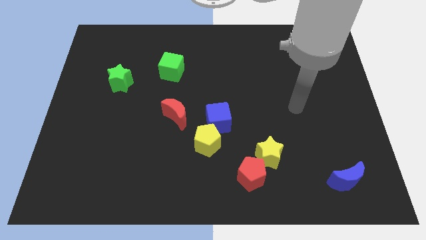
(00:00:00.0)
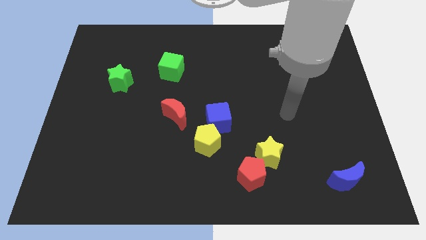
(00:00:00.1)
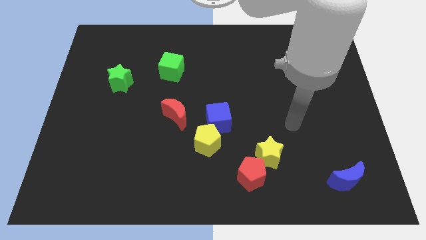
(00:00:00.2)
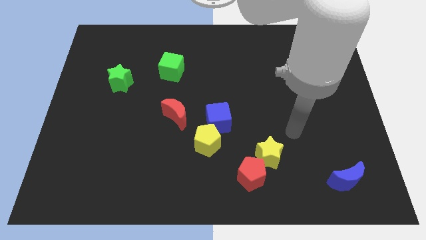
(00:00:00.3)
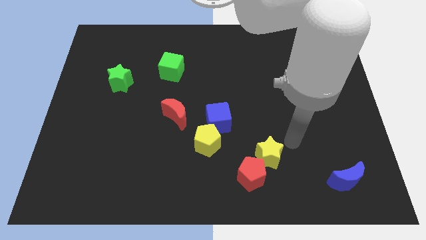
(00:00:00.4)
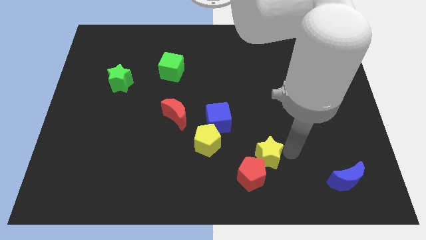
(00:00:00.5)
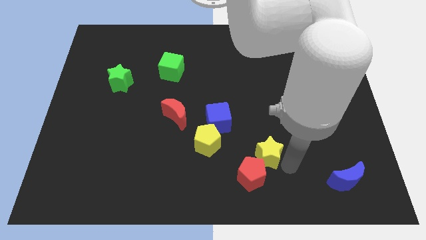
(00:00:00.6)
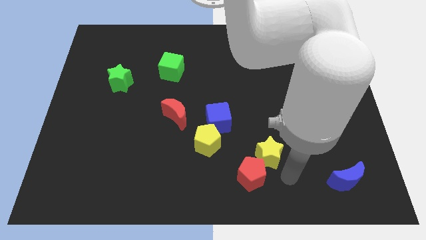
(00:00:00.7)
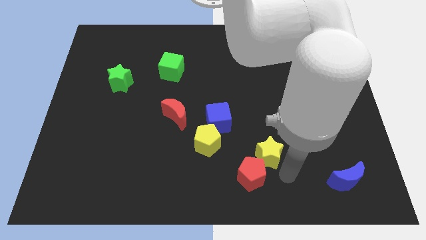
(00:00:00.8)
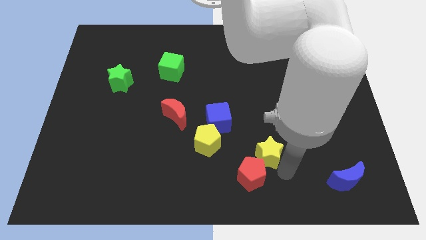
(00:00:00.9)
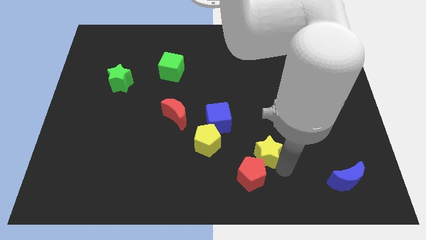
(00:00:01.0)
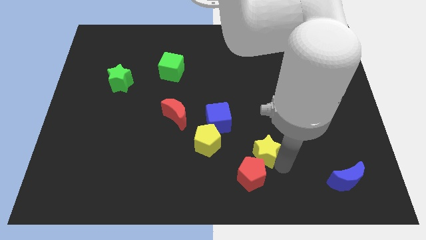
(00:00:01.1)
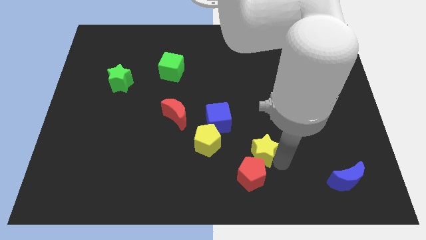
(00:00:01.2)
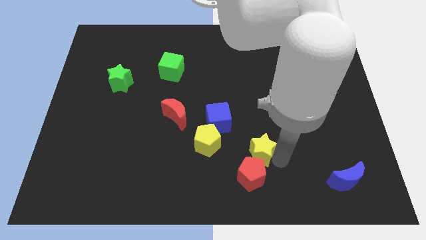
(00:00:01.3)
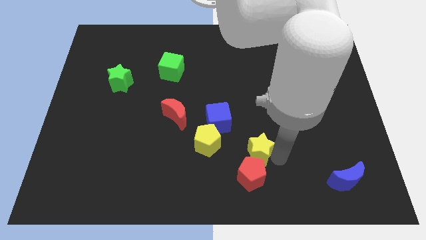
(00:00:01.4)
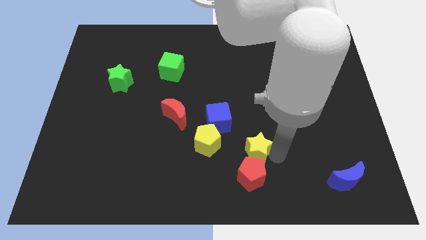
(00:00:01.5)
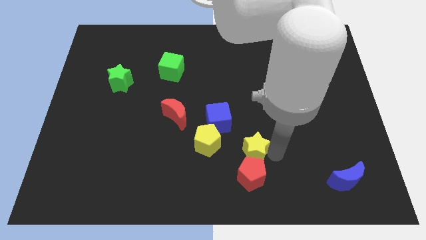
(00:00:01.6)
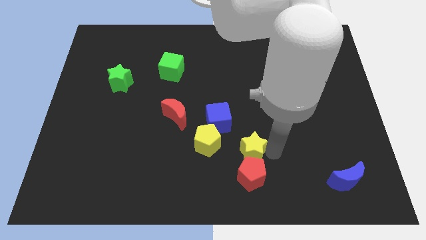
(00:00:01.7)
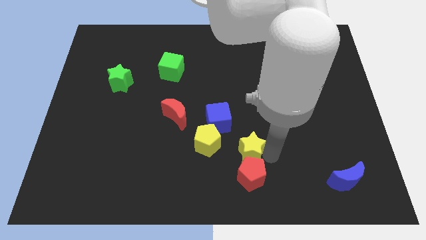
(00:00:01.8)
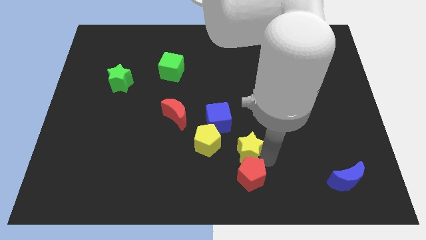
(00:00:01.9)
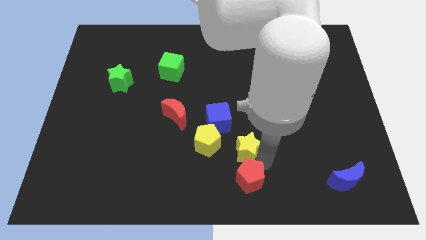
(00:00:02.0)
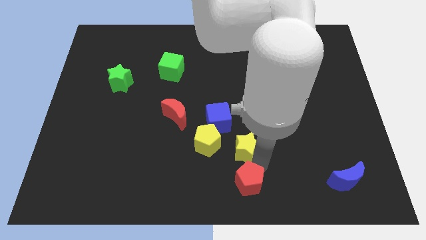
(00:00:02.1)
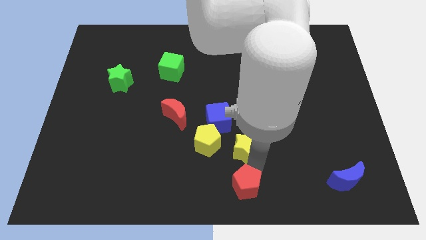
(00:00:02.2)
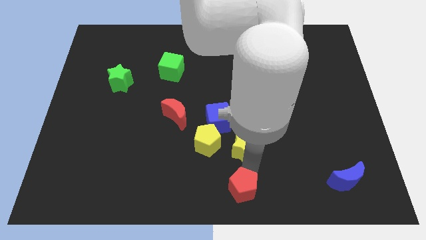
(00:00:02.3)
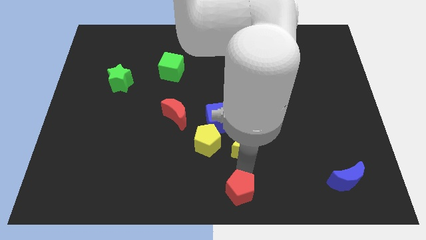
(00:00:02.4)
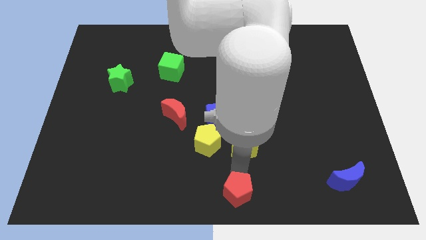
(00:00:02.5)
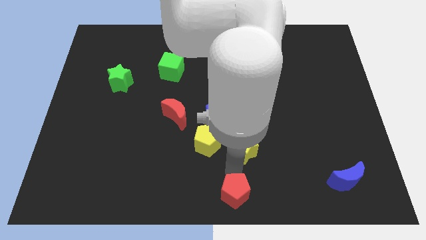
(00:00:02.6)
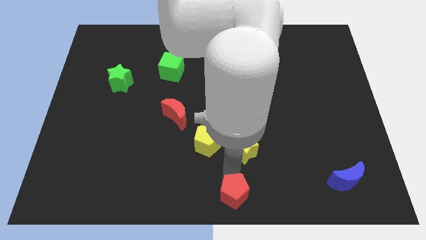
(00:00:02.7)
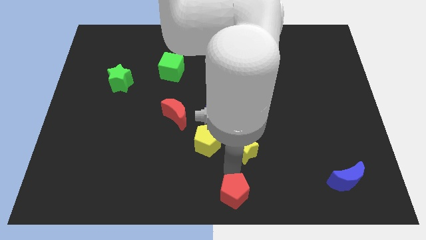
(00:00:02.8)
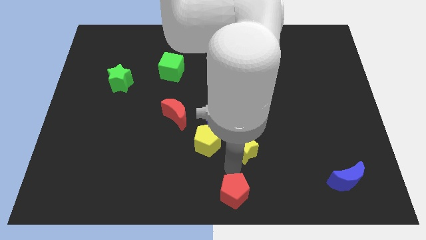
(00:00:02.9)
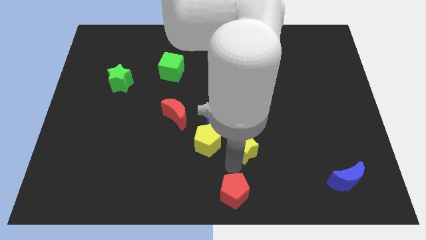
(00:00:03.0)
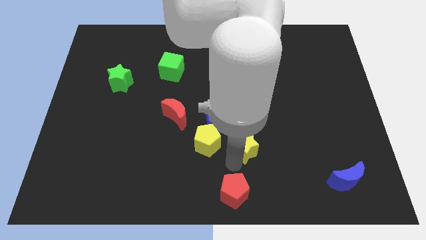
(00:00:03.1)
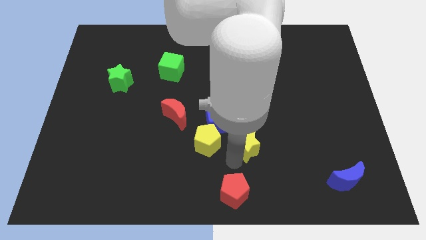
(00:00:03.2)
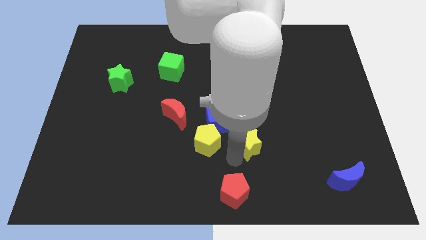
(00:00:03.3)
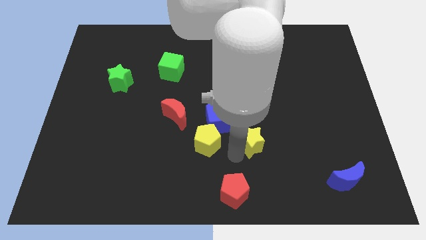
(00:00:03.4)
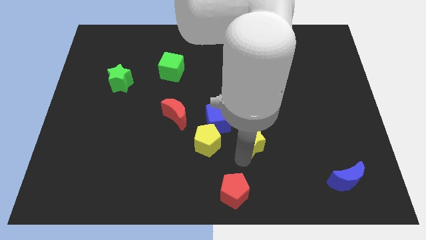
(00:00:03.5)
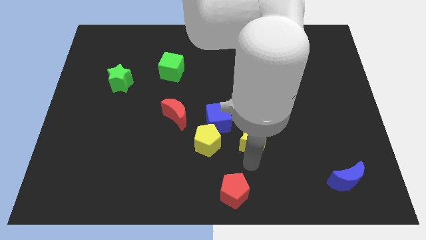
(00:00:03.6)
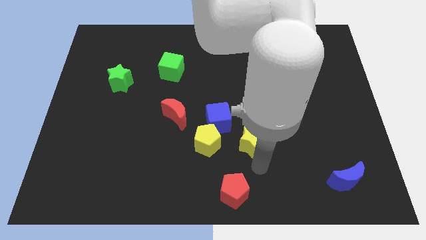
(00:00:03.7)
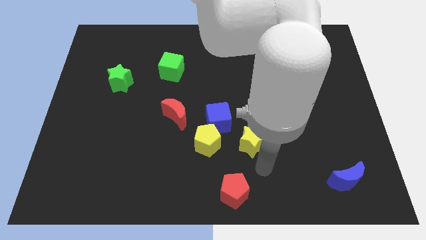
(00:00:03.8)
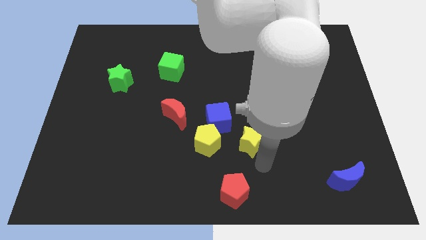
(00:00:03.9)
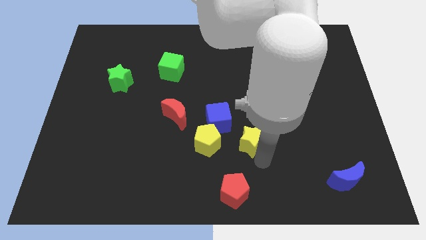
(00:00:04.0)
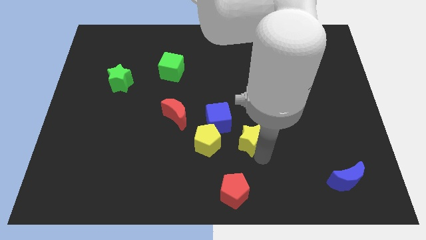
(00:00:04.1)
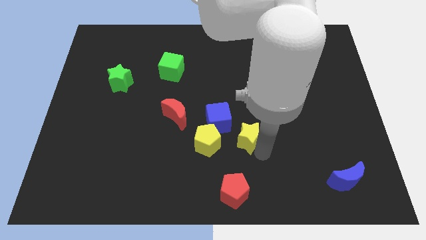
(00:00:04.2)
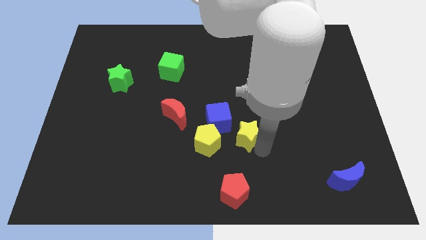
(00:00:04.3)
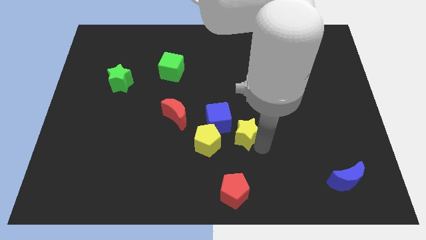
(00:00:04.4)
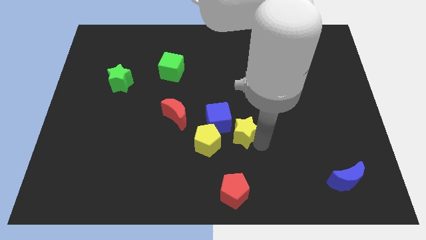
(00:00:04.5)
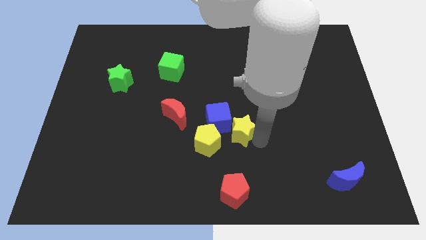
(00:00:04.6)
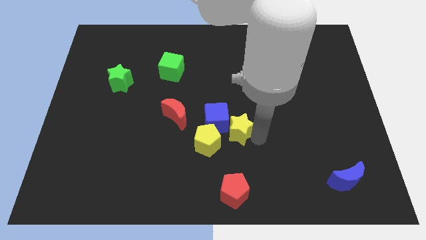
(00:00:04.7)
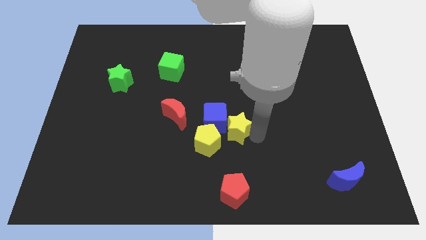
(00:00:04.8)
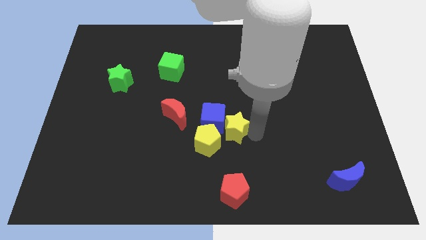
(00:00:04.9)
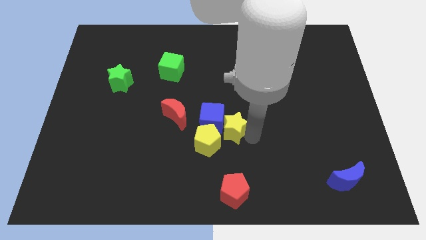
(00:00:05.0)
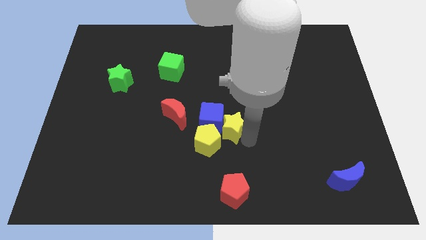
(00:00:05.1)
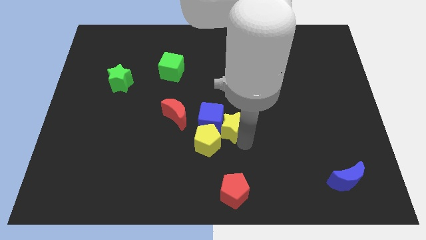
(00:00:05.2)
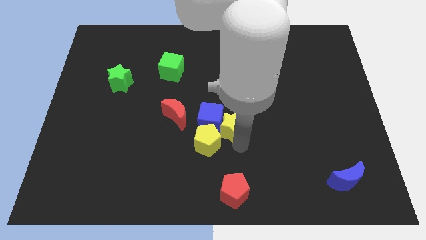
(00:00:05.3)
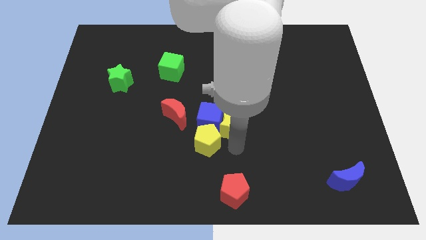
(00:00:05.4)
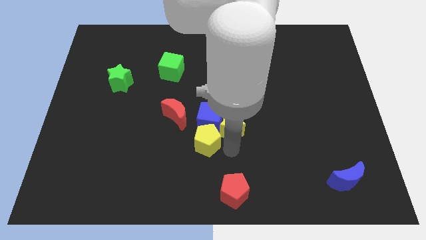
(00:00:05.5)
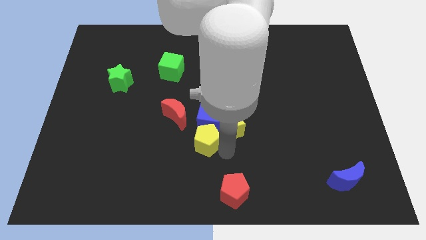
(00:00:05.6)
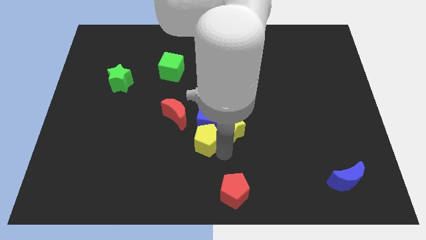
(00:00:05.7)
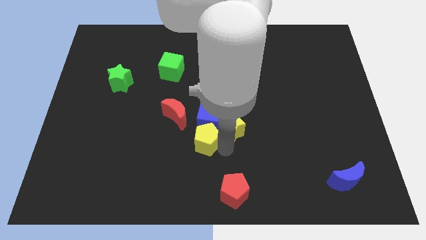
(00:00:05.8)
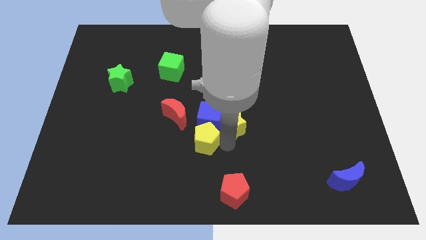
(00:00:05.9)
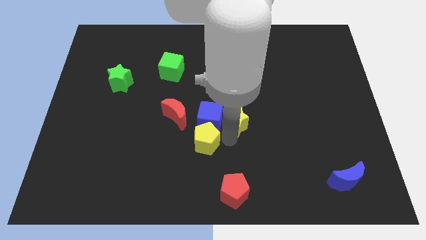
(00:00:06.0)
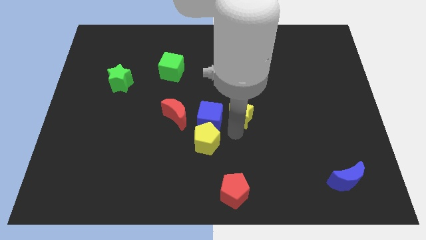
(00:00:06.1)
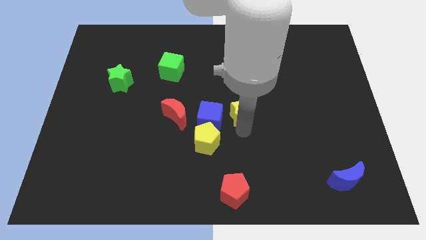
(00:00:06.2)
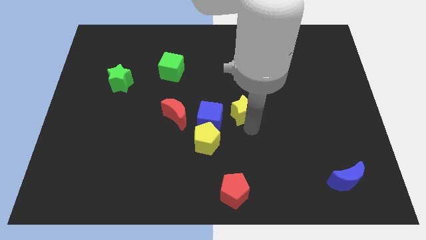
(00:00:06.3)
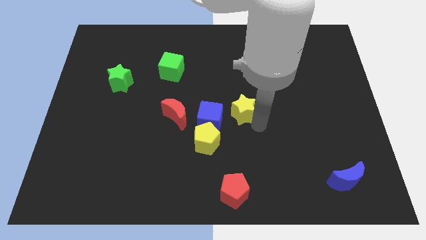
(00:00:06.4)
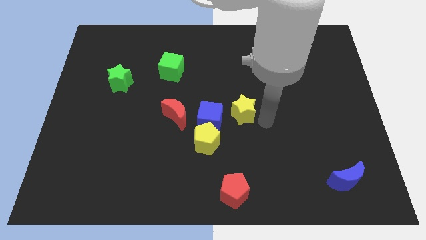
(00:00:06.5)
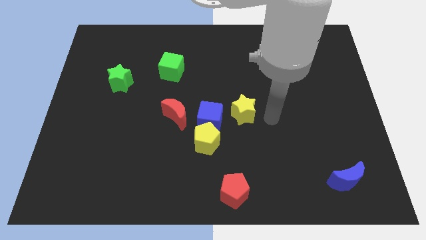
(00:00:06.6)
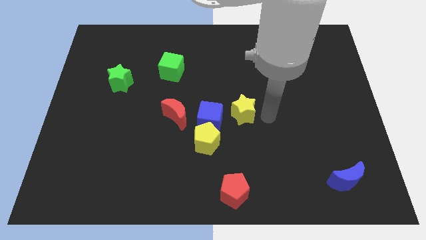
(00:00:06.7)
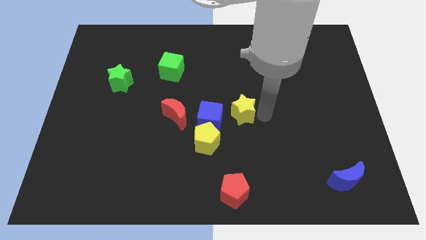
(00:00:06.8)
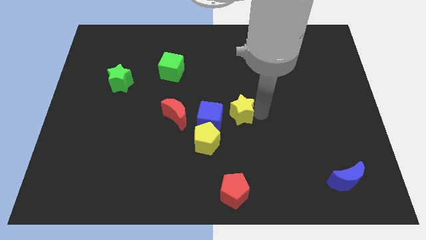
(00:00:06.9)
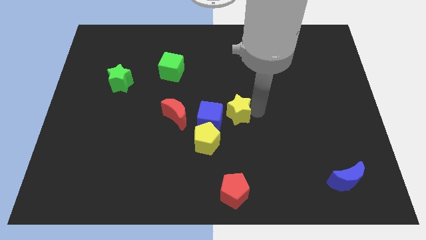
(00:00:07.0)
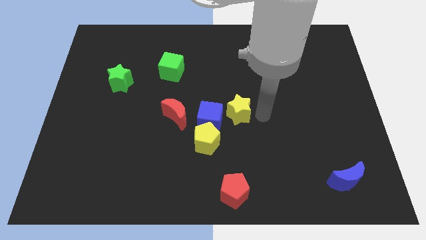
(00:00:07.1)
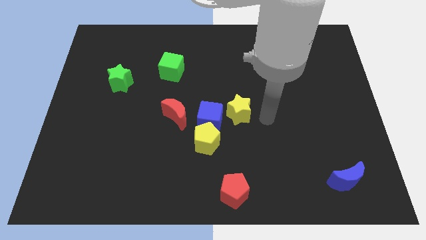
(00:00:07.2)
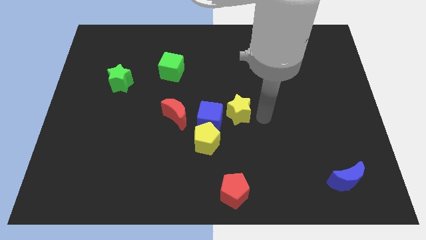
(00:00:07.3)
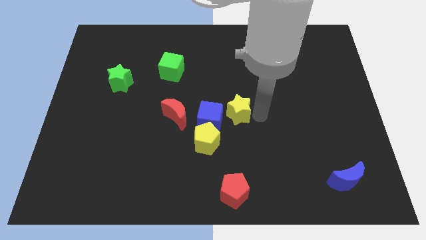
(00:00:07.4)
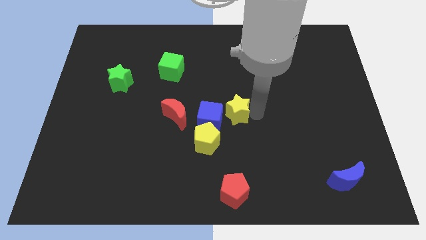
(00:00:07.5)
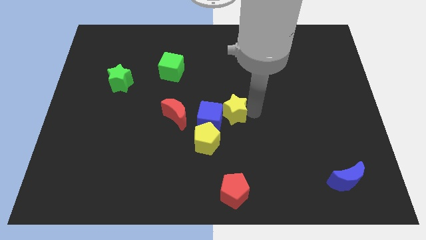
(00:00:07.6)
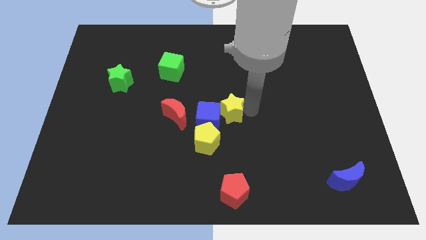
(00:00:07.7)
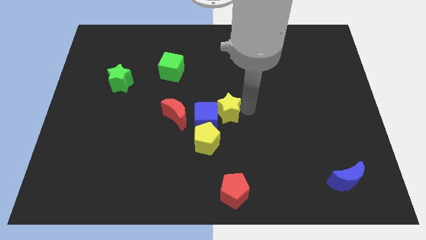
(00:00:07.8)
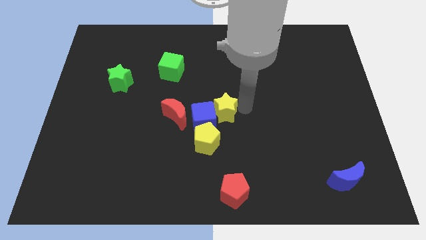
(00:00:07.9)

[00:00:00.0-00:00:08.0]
slide the yellow star above the yellow pentagon
